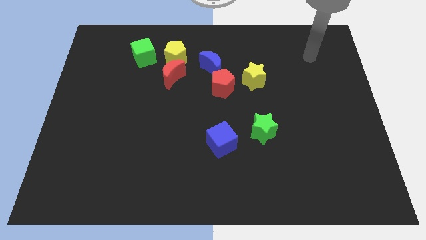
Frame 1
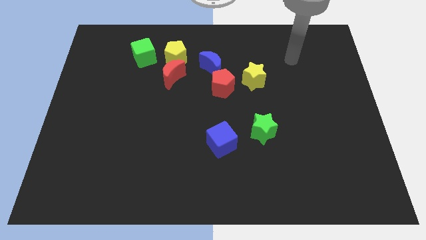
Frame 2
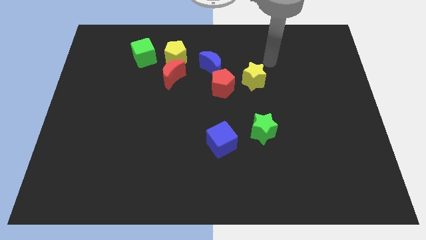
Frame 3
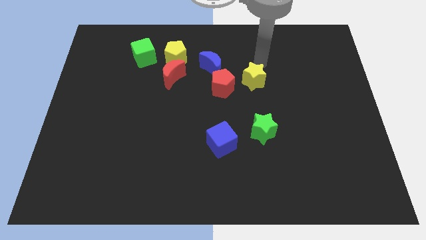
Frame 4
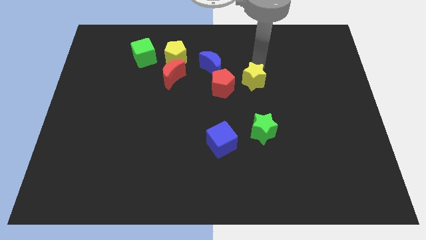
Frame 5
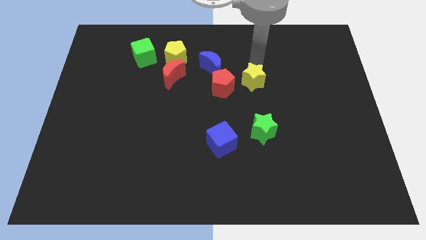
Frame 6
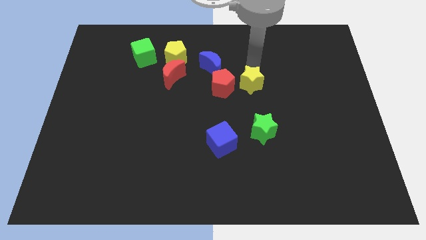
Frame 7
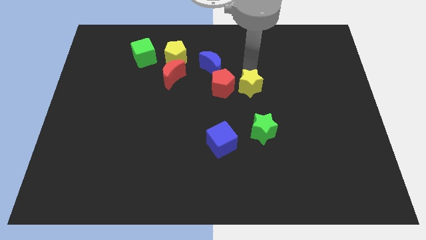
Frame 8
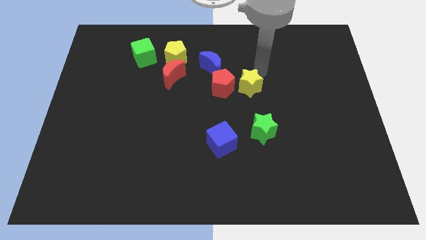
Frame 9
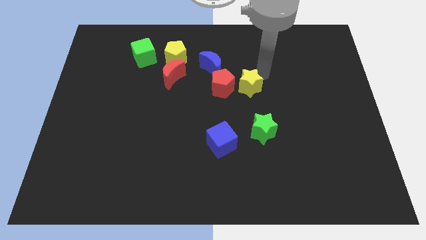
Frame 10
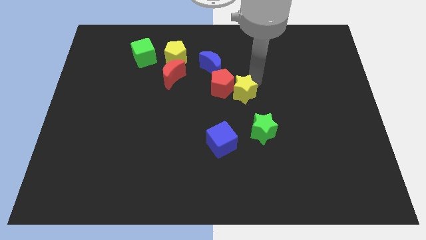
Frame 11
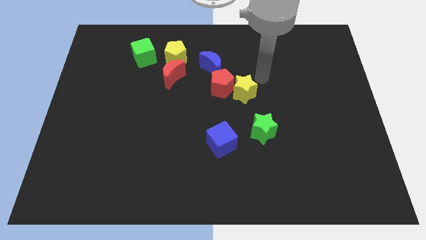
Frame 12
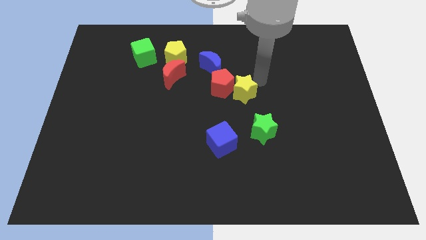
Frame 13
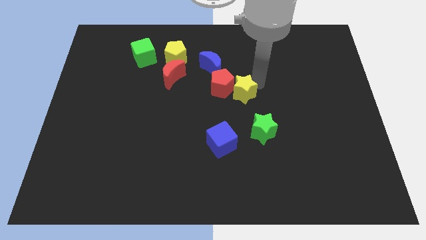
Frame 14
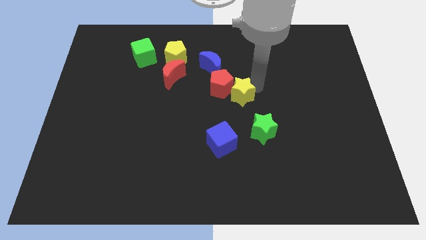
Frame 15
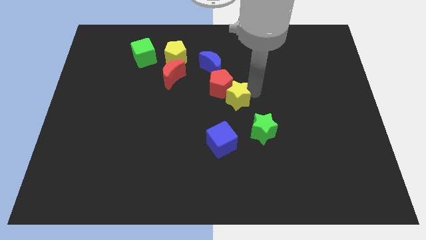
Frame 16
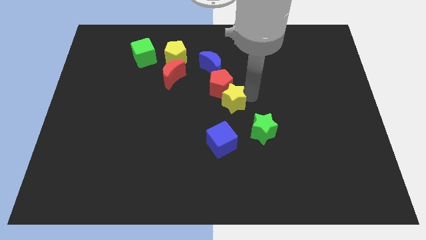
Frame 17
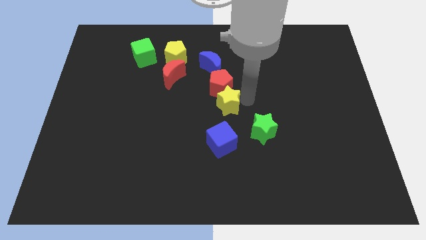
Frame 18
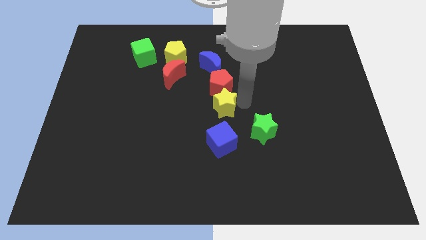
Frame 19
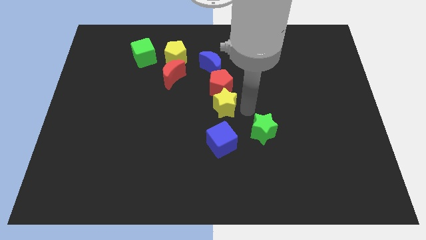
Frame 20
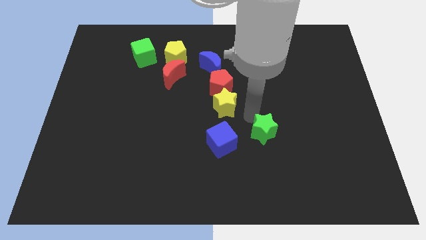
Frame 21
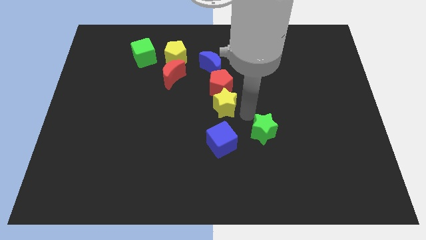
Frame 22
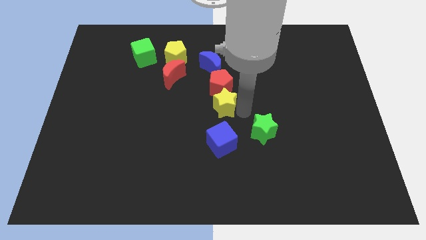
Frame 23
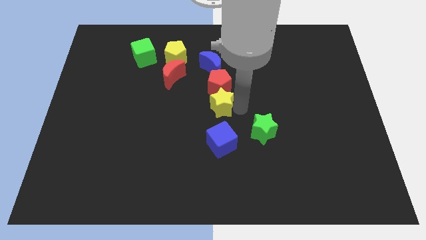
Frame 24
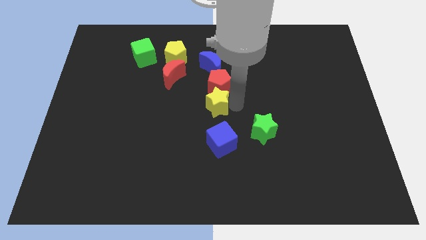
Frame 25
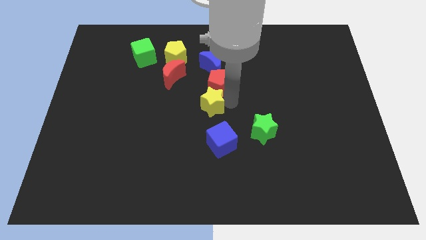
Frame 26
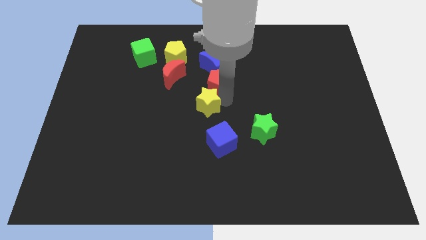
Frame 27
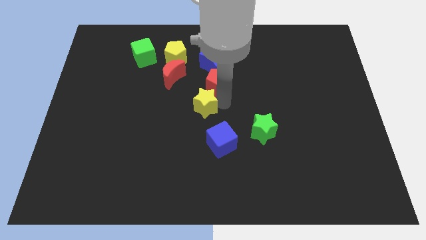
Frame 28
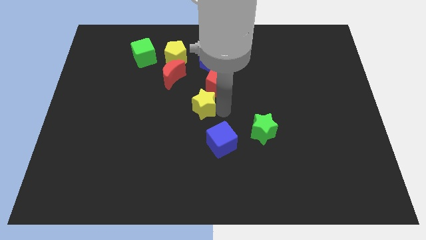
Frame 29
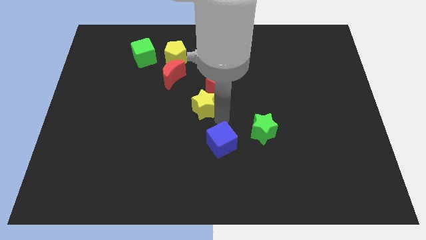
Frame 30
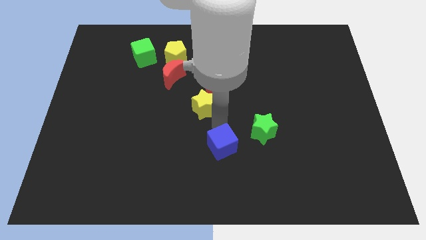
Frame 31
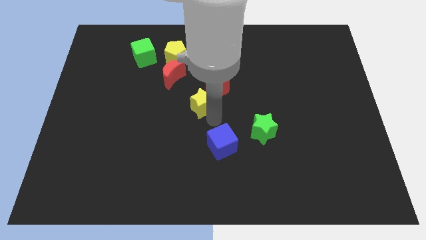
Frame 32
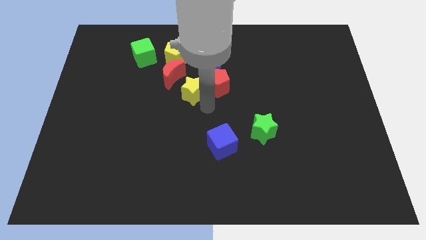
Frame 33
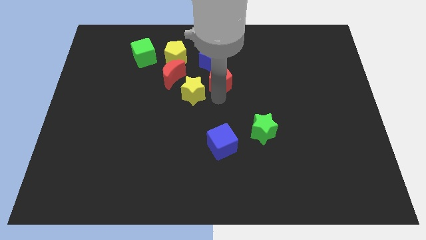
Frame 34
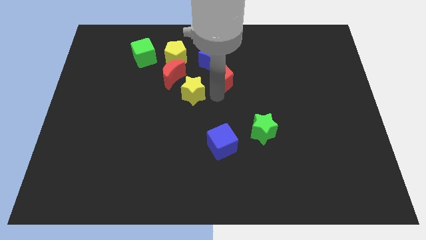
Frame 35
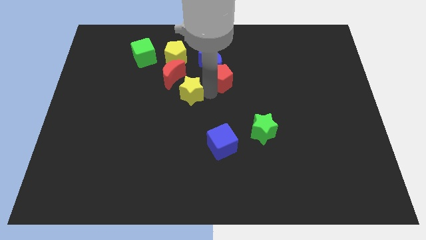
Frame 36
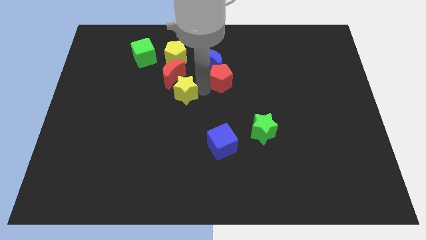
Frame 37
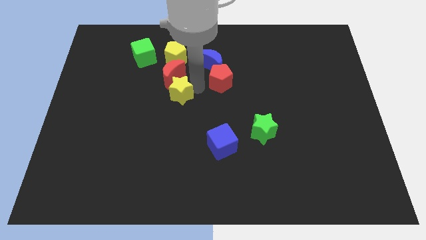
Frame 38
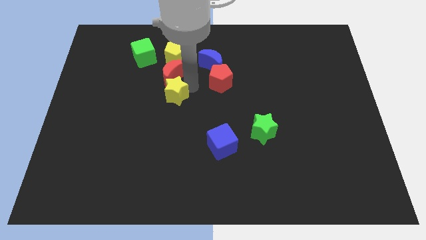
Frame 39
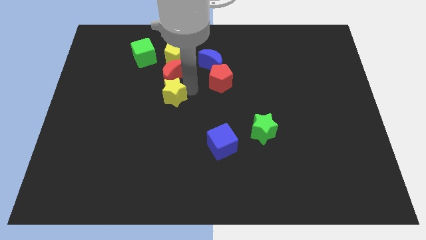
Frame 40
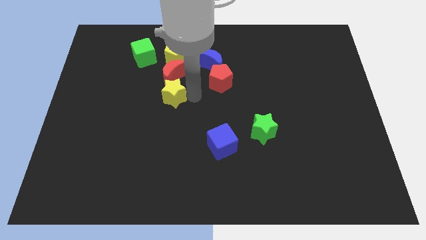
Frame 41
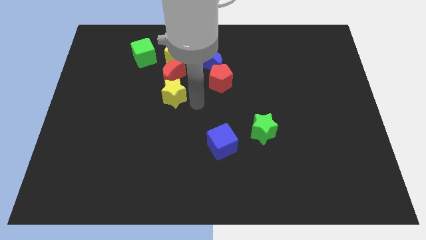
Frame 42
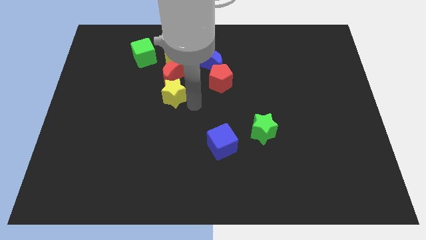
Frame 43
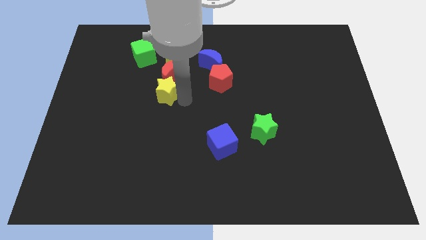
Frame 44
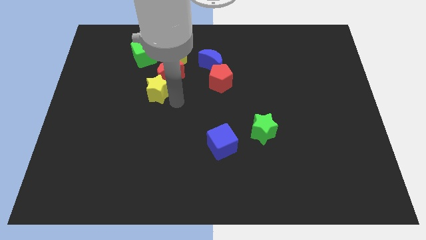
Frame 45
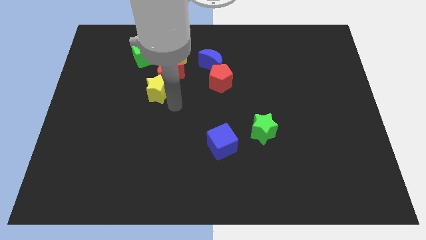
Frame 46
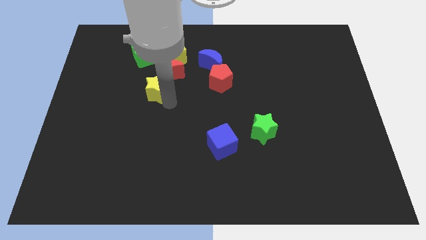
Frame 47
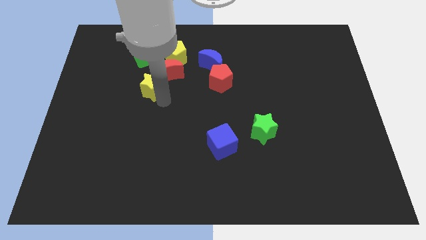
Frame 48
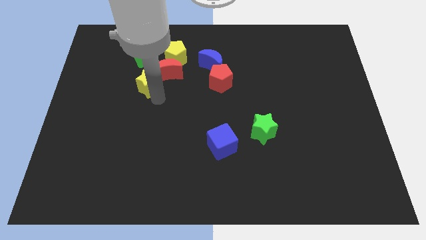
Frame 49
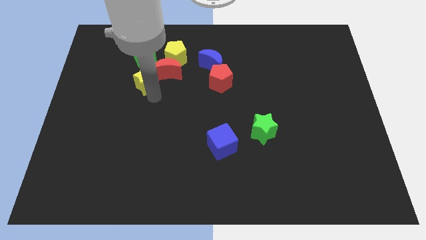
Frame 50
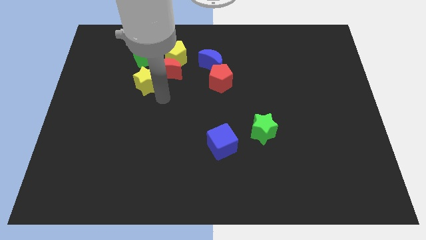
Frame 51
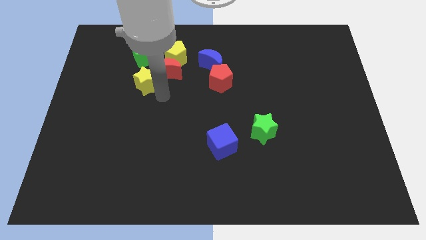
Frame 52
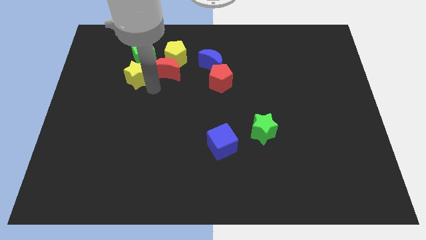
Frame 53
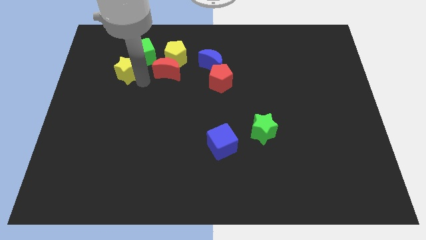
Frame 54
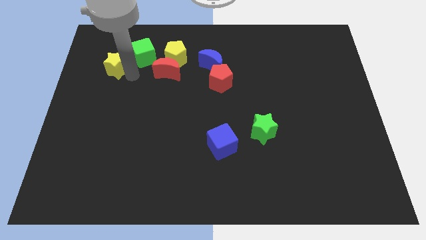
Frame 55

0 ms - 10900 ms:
push the yellow star to the left side of the green cube

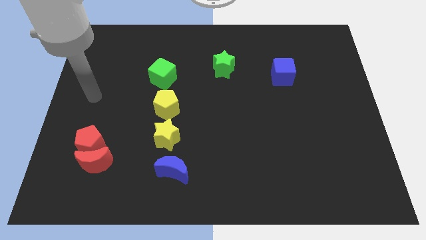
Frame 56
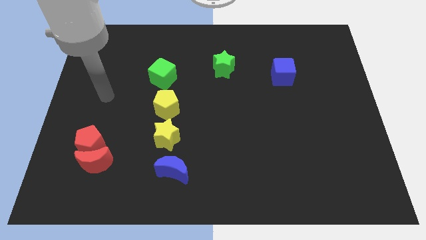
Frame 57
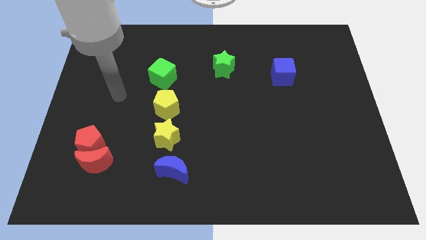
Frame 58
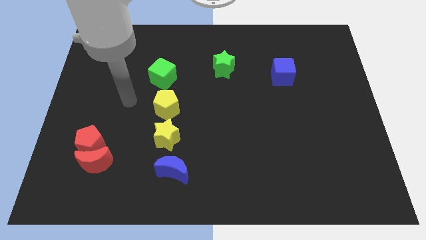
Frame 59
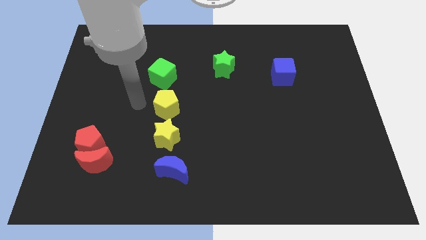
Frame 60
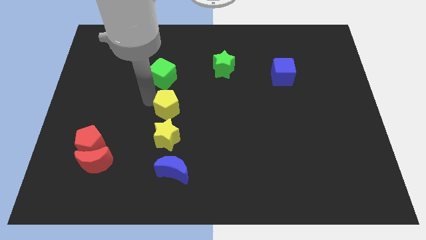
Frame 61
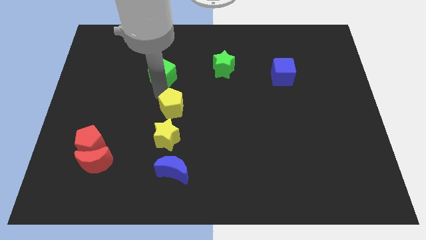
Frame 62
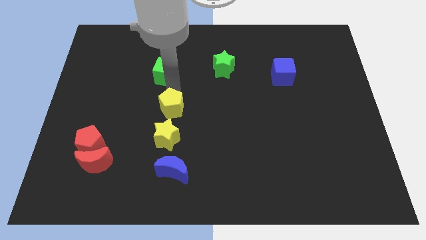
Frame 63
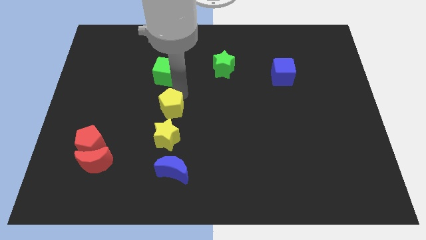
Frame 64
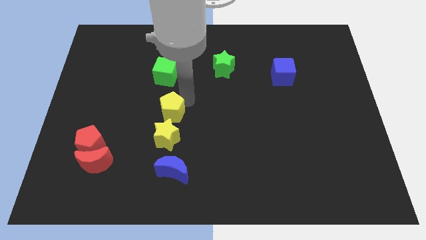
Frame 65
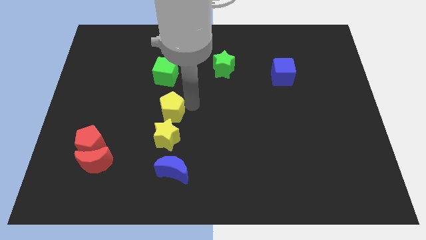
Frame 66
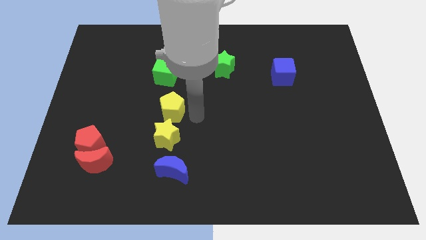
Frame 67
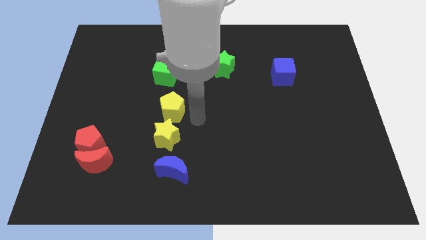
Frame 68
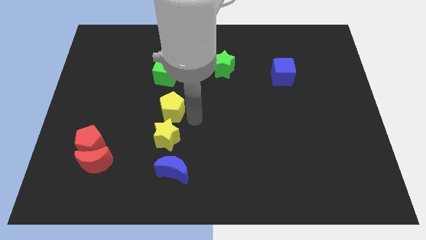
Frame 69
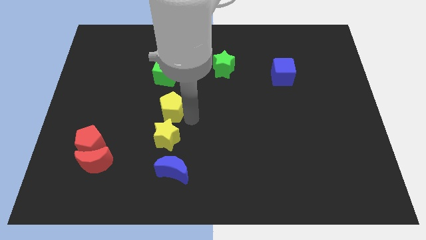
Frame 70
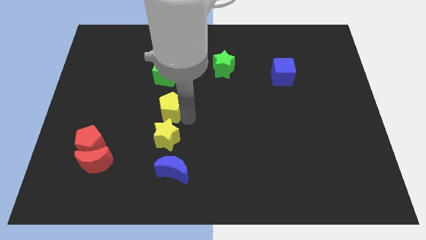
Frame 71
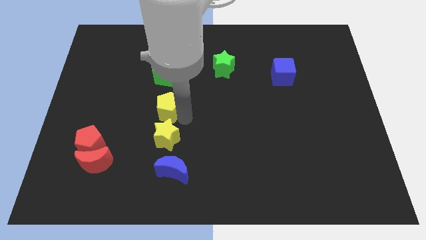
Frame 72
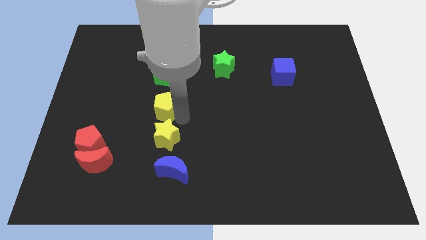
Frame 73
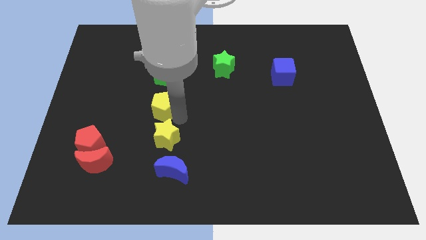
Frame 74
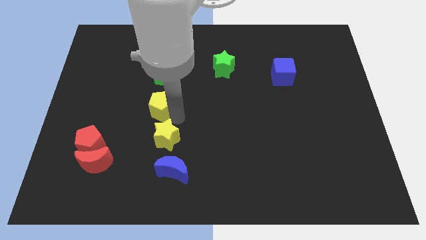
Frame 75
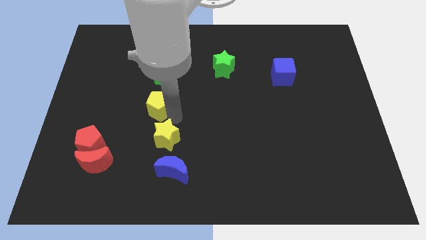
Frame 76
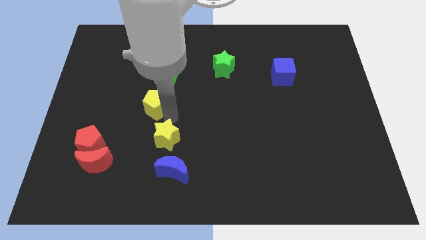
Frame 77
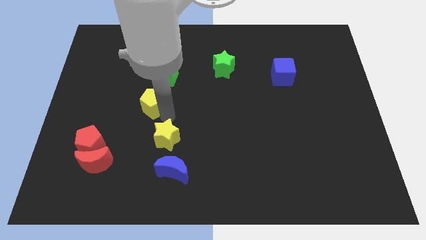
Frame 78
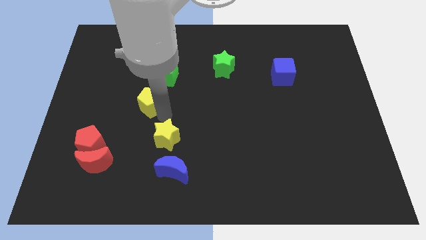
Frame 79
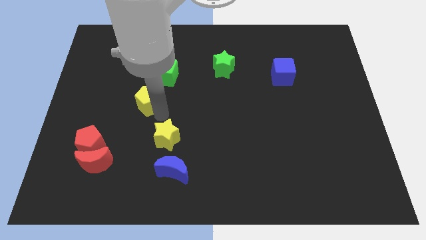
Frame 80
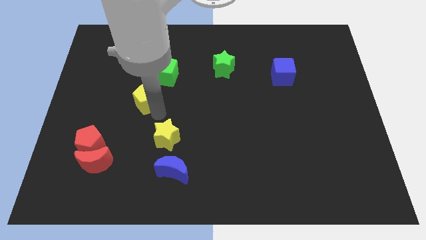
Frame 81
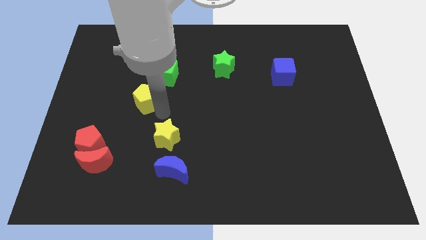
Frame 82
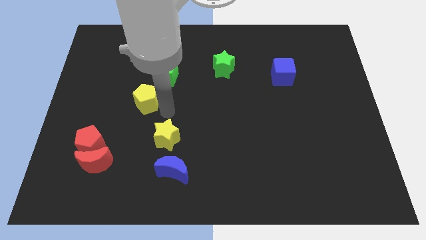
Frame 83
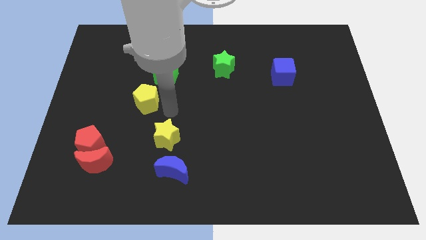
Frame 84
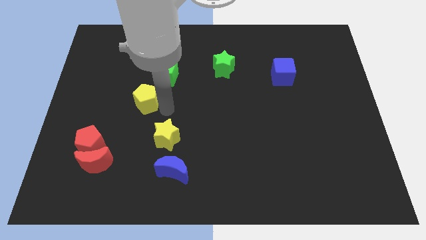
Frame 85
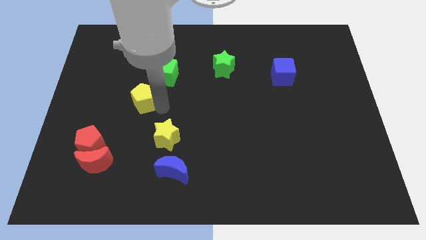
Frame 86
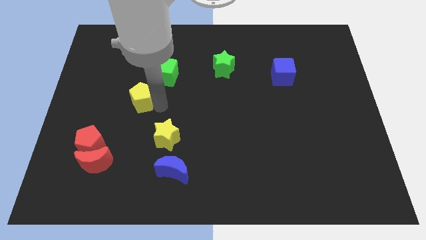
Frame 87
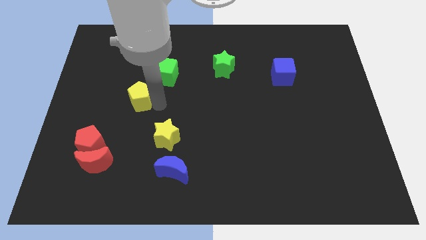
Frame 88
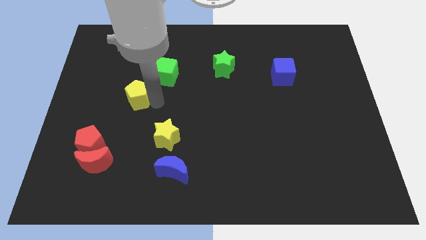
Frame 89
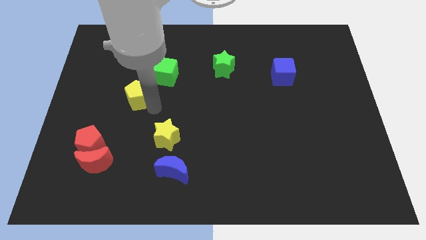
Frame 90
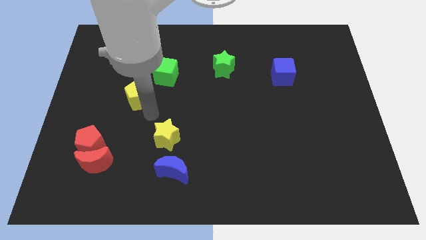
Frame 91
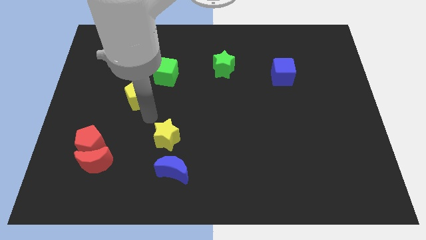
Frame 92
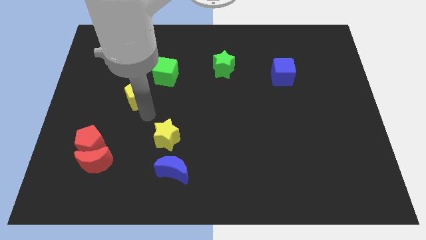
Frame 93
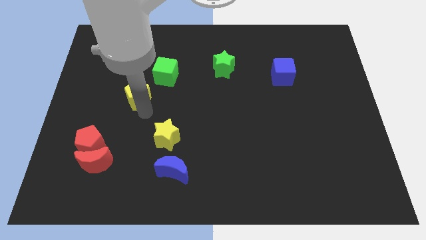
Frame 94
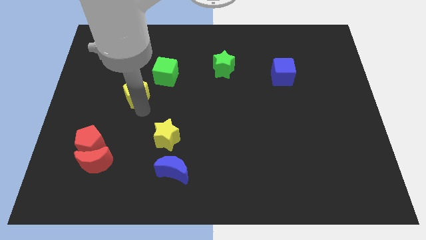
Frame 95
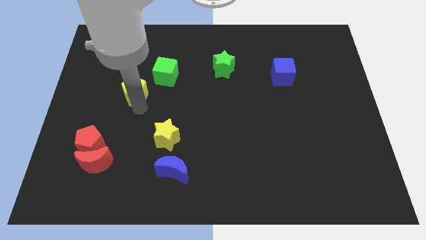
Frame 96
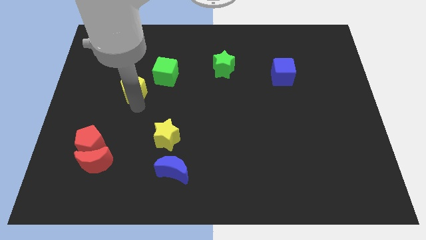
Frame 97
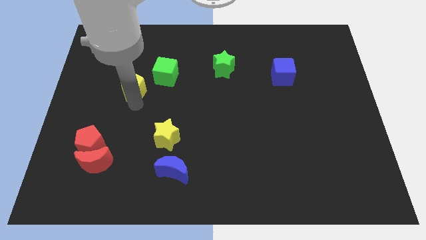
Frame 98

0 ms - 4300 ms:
slide the yellow pentagon just left of the green cube
